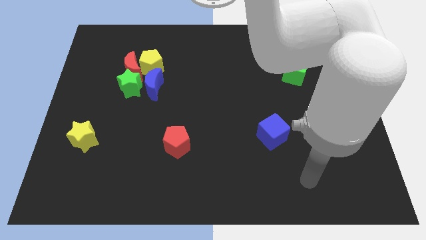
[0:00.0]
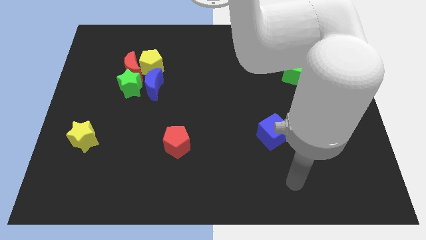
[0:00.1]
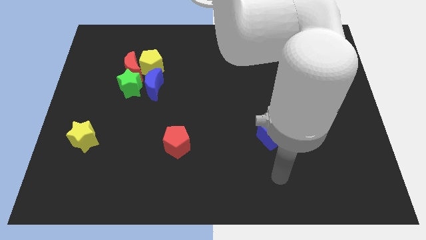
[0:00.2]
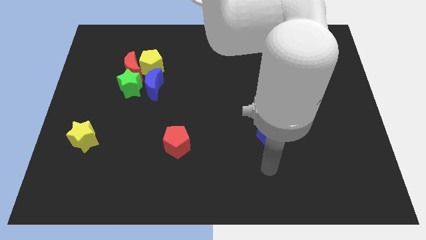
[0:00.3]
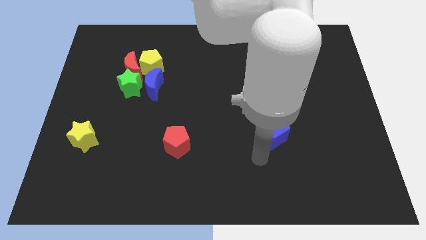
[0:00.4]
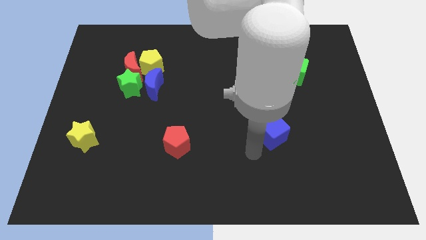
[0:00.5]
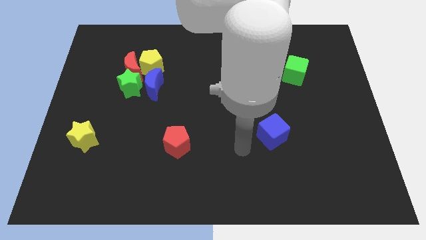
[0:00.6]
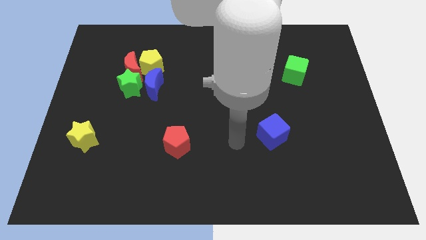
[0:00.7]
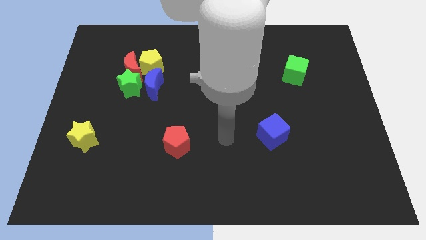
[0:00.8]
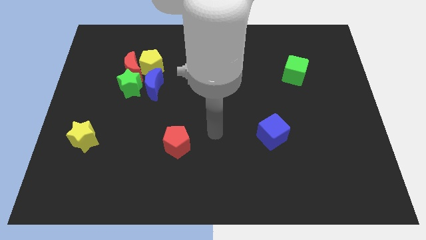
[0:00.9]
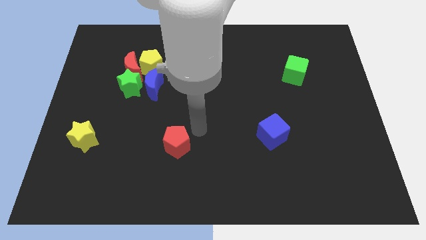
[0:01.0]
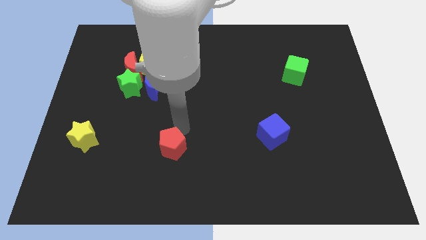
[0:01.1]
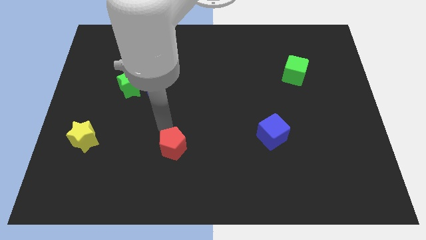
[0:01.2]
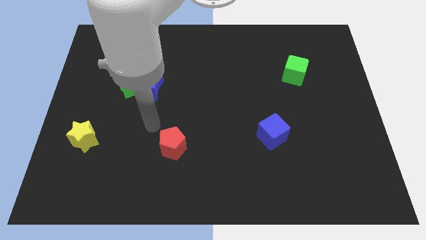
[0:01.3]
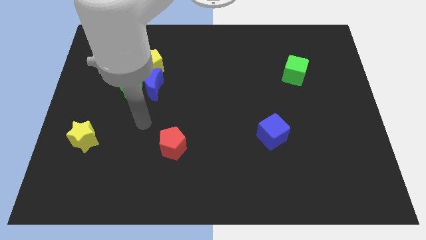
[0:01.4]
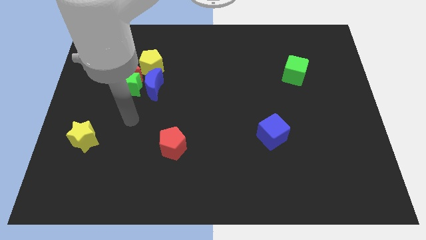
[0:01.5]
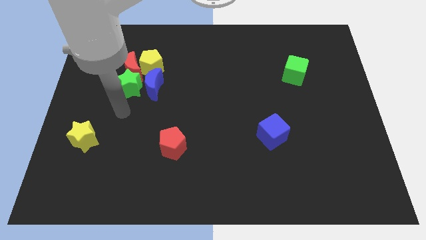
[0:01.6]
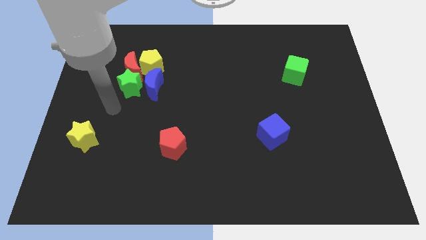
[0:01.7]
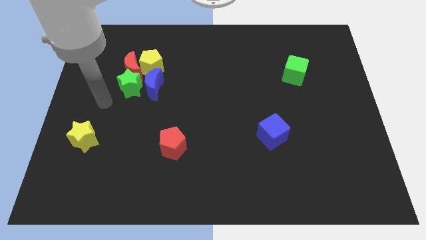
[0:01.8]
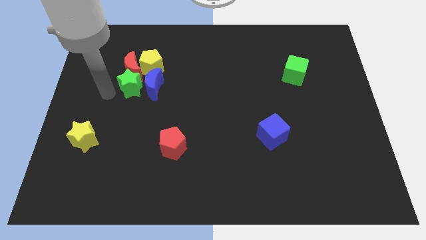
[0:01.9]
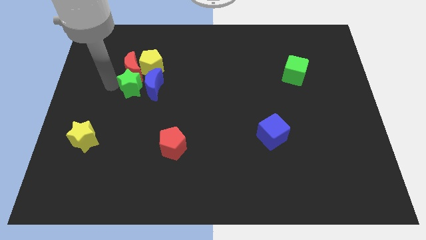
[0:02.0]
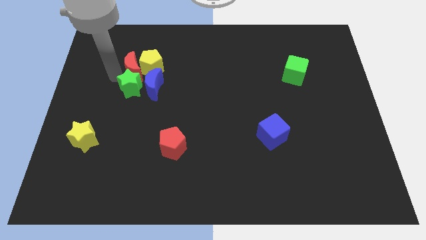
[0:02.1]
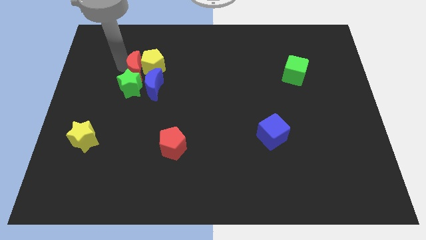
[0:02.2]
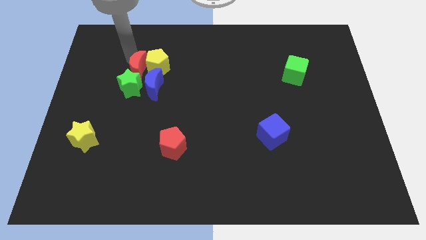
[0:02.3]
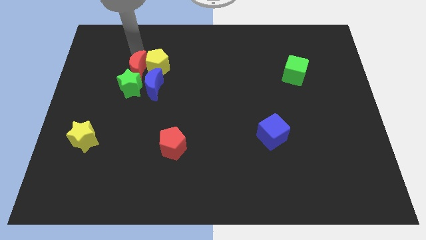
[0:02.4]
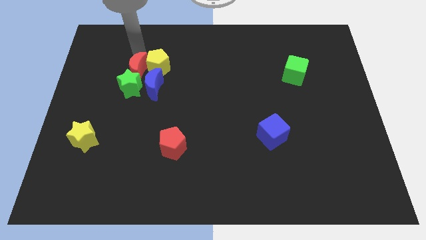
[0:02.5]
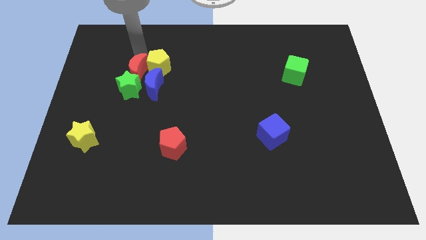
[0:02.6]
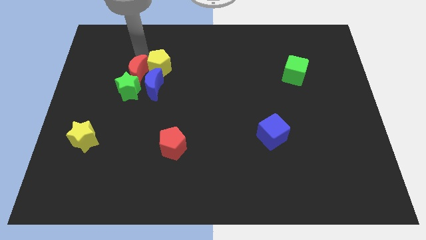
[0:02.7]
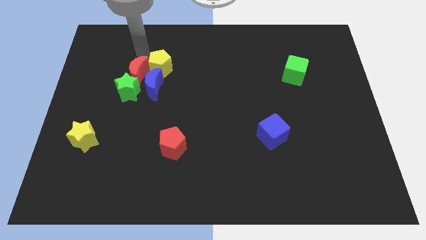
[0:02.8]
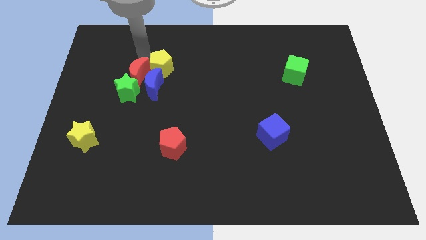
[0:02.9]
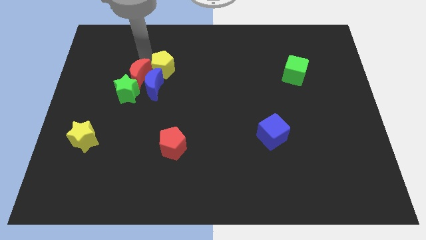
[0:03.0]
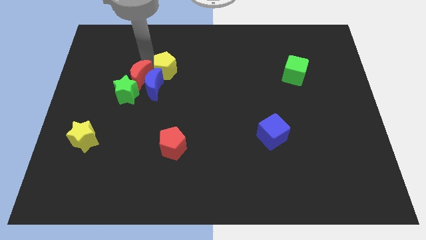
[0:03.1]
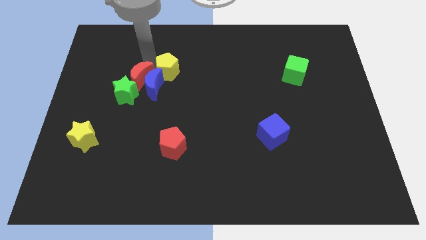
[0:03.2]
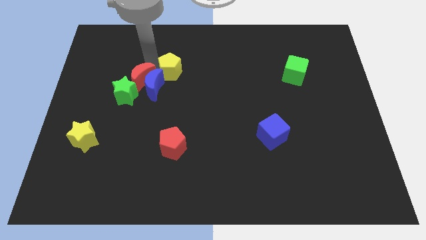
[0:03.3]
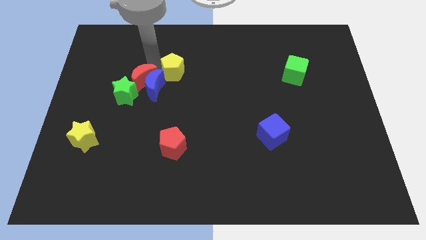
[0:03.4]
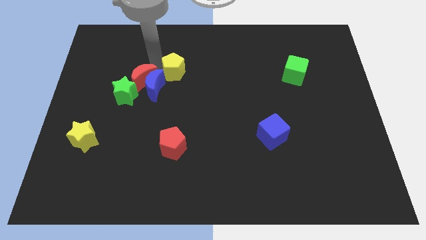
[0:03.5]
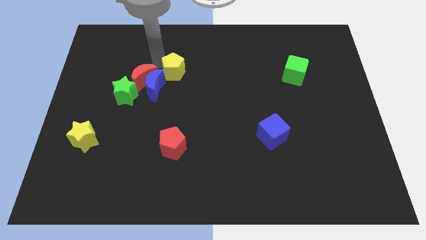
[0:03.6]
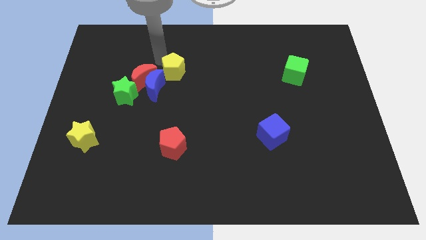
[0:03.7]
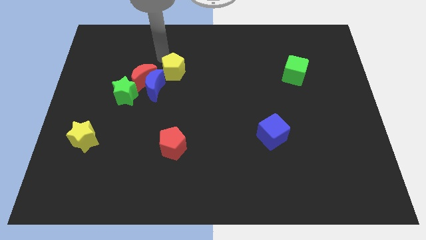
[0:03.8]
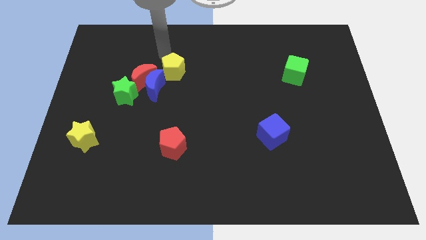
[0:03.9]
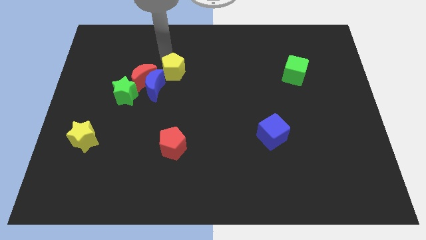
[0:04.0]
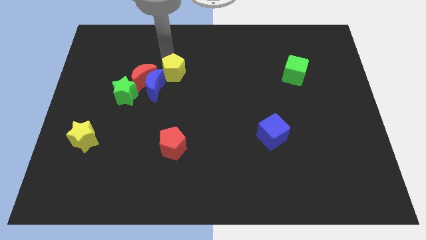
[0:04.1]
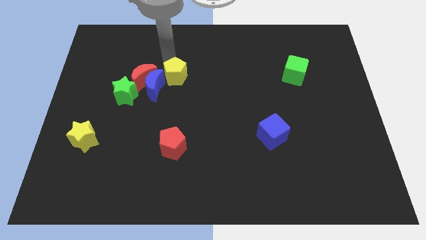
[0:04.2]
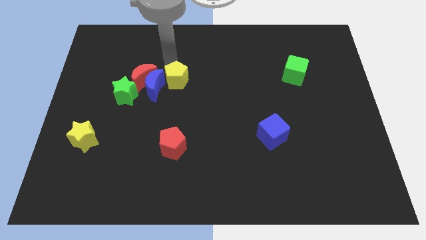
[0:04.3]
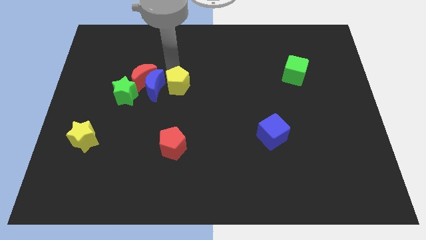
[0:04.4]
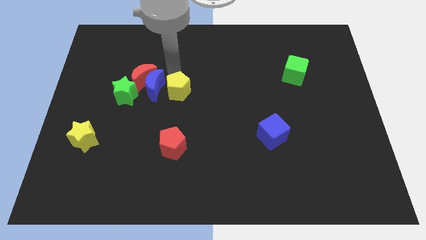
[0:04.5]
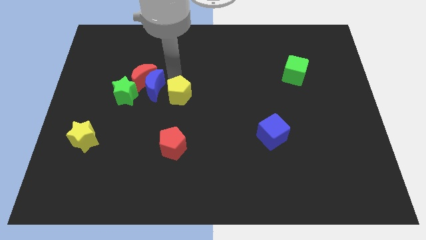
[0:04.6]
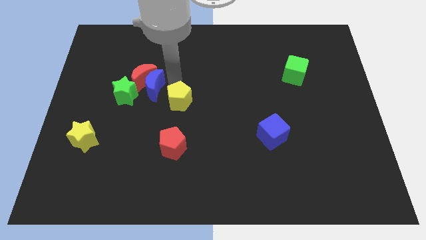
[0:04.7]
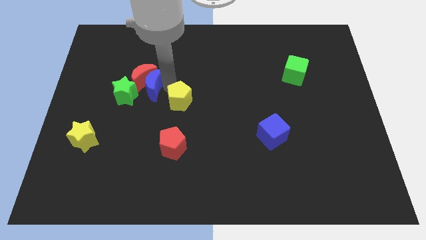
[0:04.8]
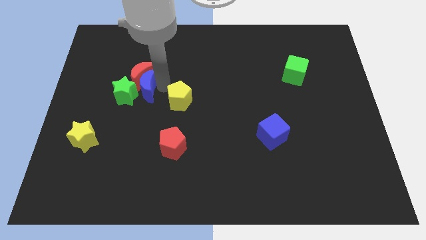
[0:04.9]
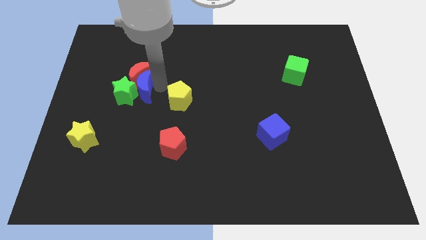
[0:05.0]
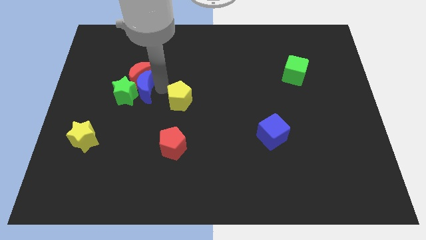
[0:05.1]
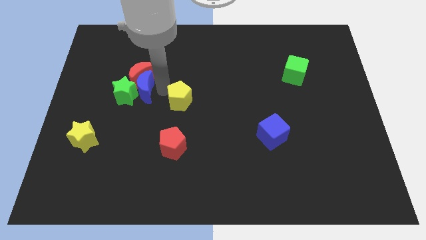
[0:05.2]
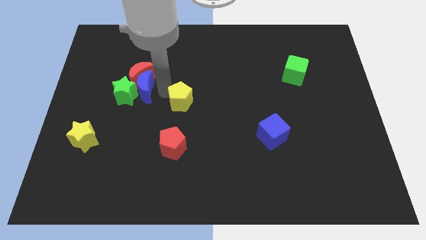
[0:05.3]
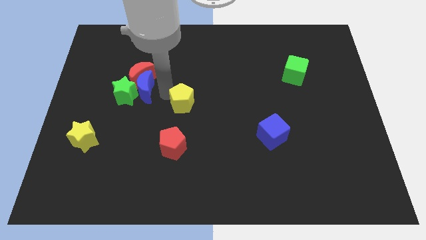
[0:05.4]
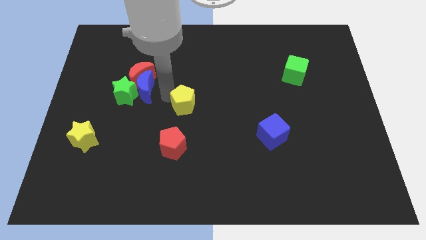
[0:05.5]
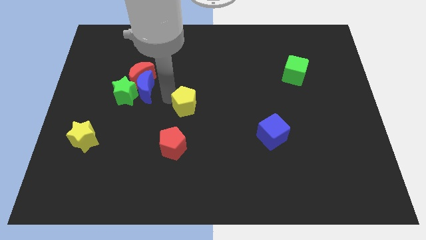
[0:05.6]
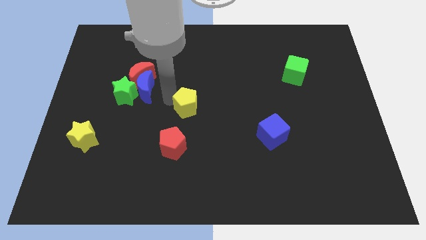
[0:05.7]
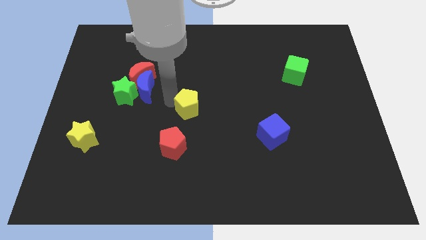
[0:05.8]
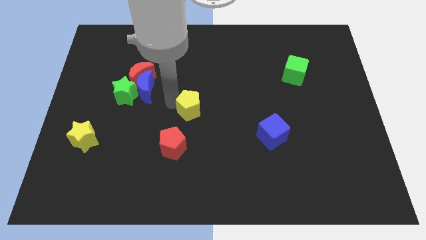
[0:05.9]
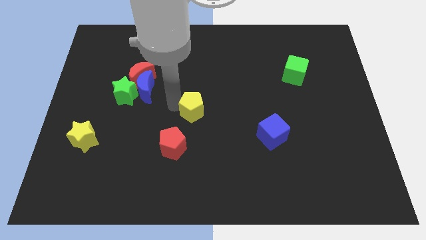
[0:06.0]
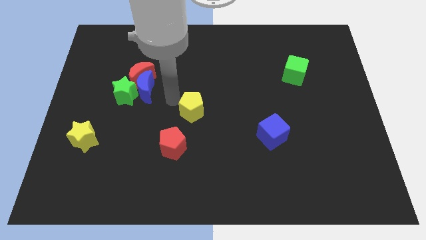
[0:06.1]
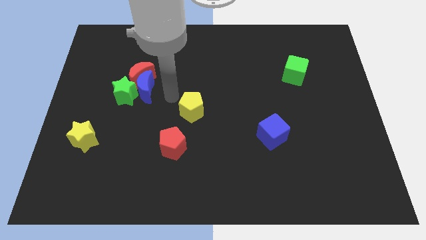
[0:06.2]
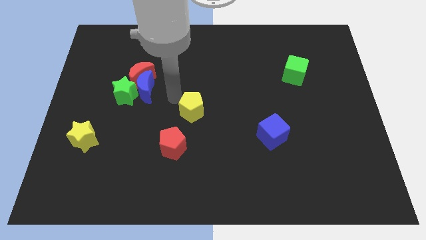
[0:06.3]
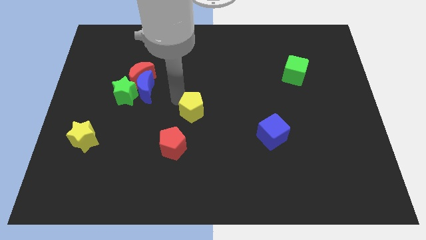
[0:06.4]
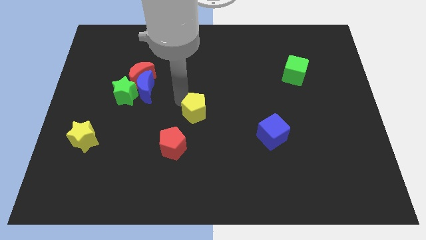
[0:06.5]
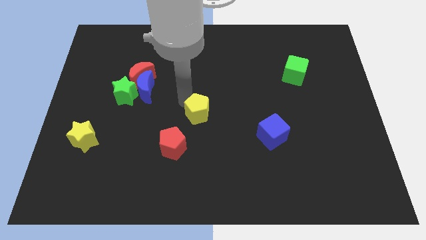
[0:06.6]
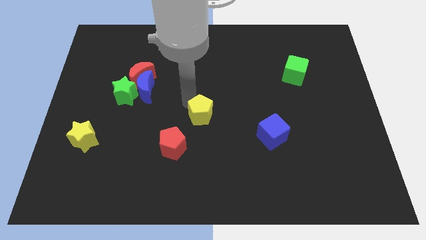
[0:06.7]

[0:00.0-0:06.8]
slide the yellow pentagon diagonally down and to the right

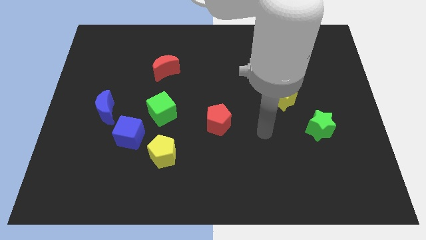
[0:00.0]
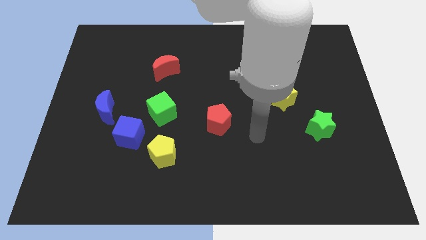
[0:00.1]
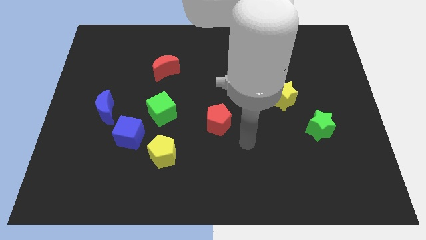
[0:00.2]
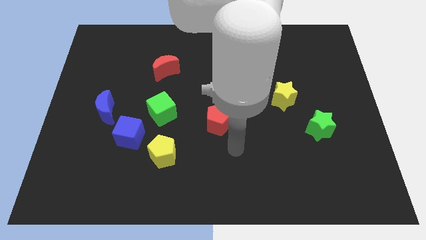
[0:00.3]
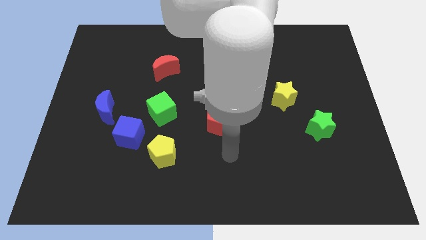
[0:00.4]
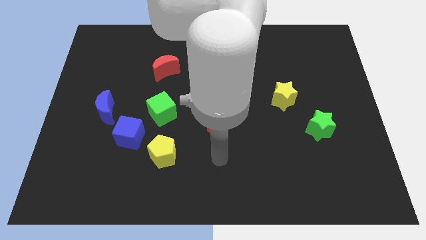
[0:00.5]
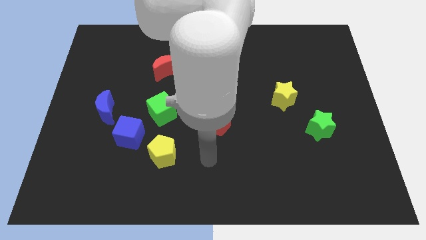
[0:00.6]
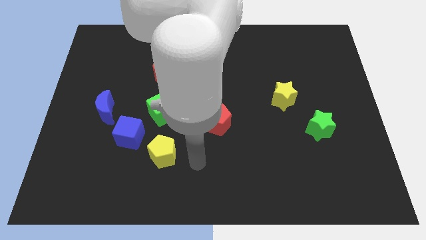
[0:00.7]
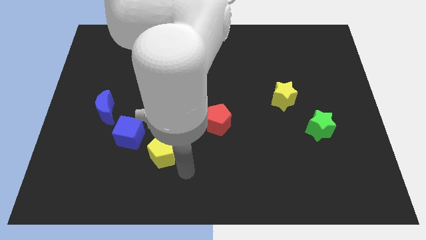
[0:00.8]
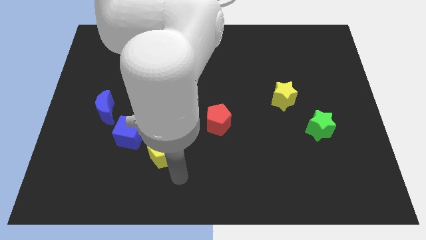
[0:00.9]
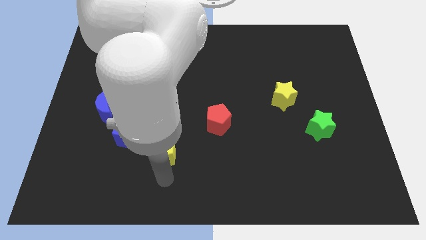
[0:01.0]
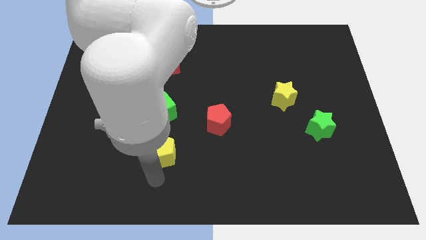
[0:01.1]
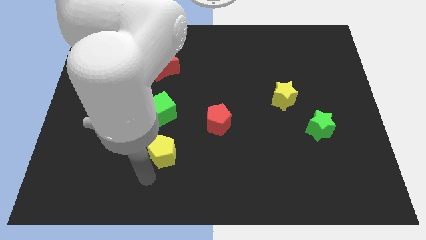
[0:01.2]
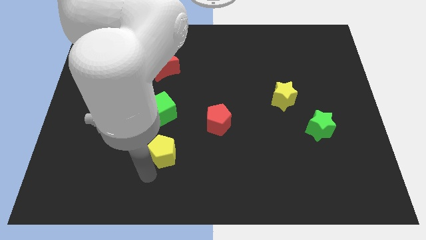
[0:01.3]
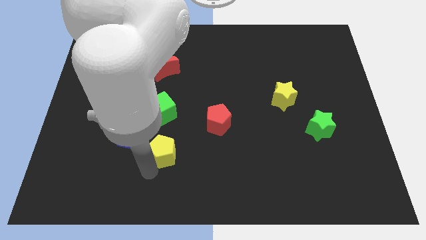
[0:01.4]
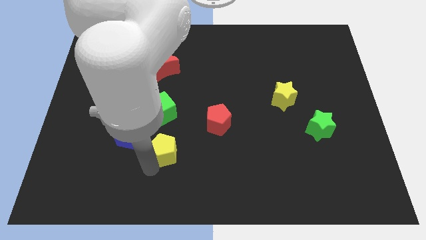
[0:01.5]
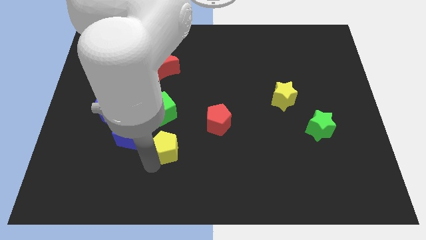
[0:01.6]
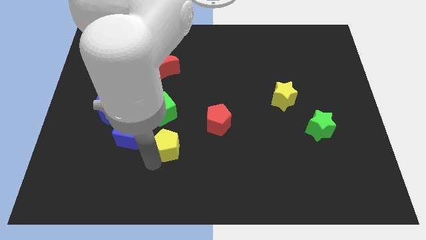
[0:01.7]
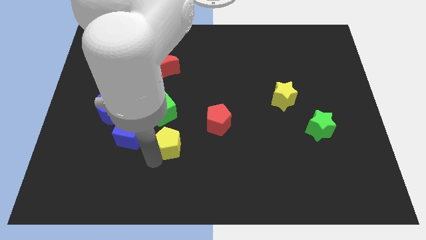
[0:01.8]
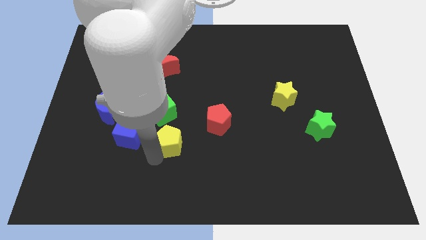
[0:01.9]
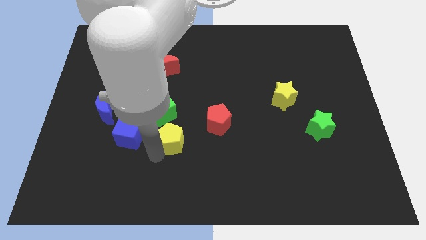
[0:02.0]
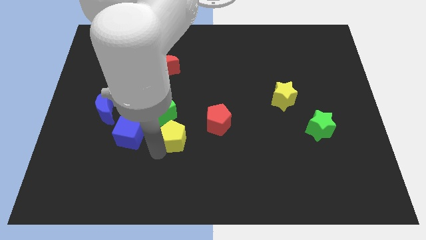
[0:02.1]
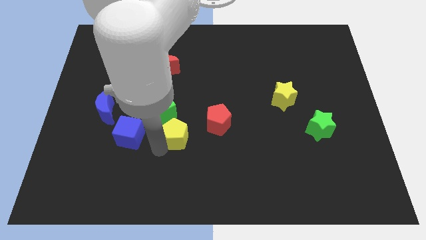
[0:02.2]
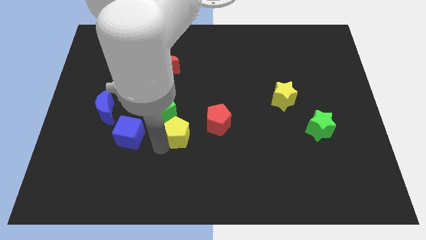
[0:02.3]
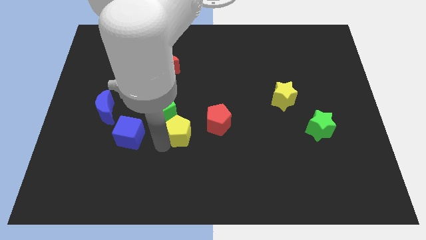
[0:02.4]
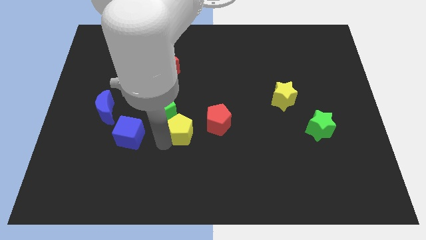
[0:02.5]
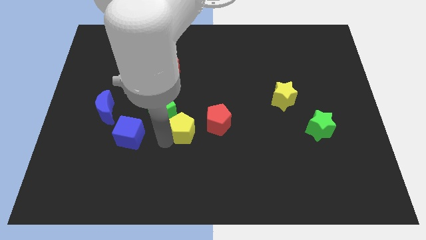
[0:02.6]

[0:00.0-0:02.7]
move the yellow pentagon up and to the right diagonally somewhat
